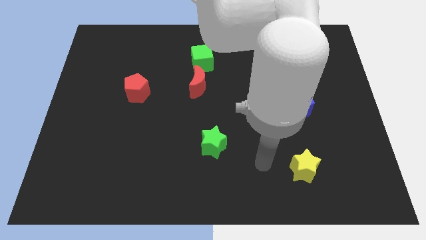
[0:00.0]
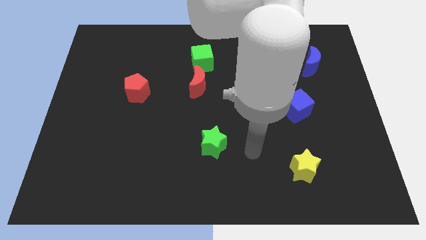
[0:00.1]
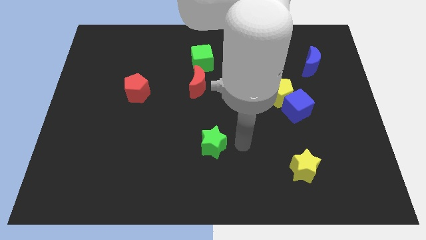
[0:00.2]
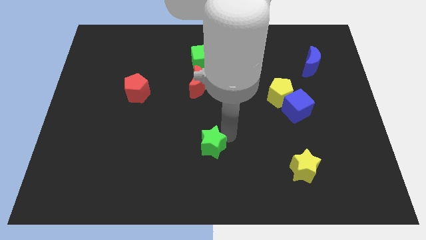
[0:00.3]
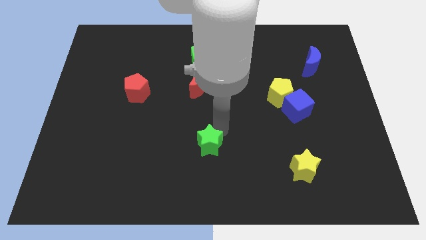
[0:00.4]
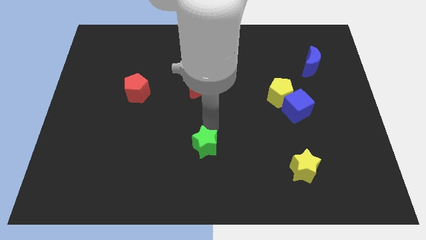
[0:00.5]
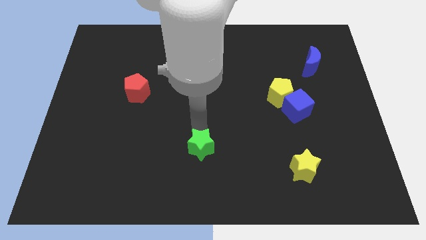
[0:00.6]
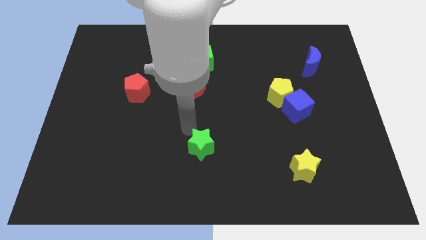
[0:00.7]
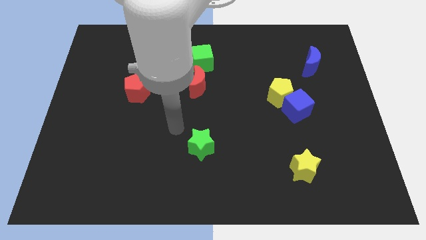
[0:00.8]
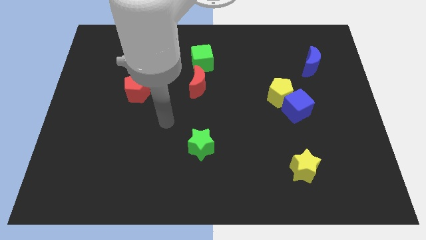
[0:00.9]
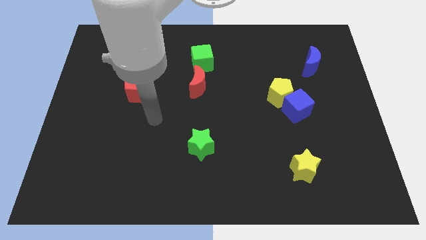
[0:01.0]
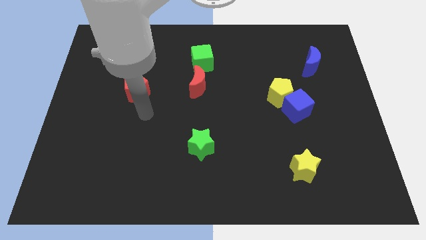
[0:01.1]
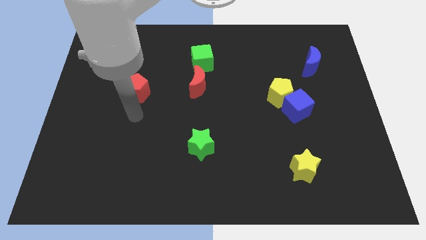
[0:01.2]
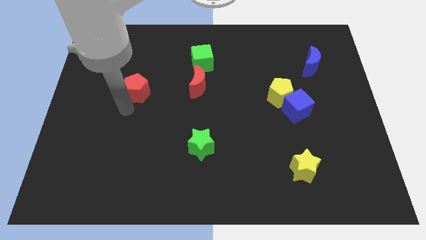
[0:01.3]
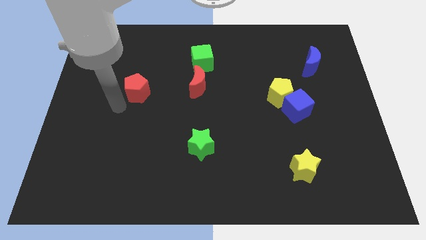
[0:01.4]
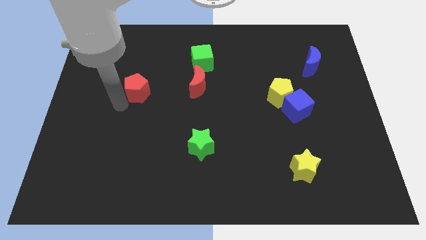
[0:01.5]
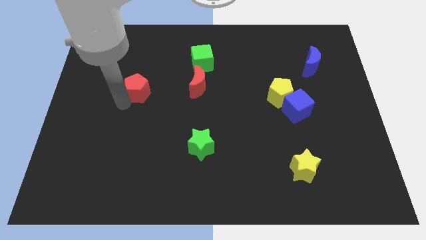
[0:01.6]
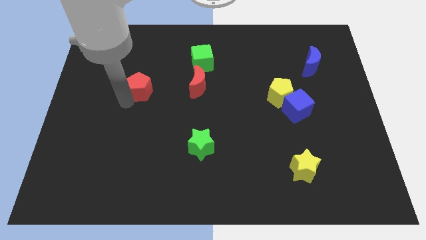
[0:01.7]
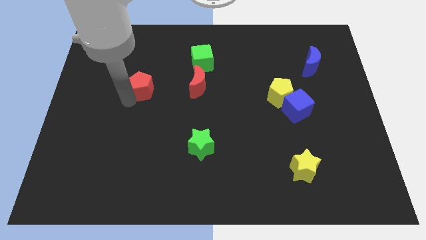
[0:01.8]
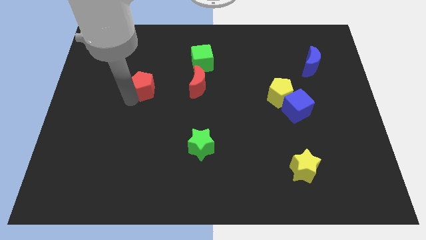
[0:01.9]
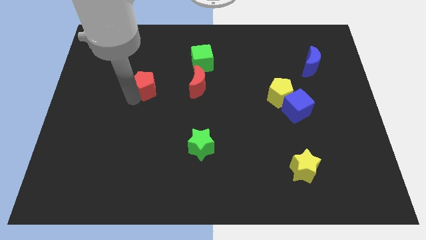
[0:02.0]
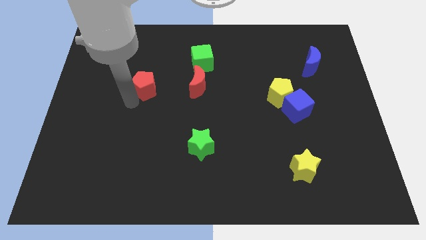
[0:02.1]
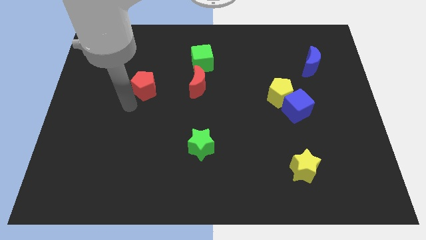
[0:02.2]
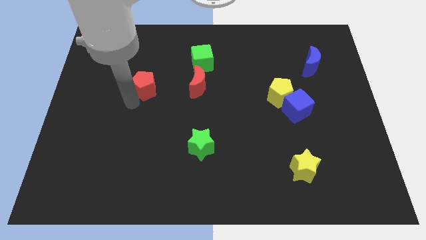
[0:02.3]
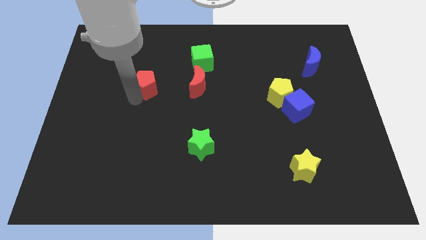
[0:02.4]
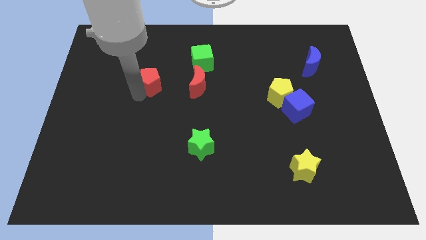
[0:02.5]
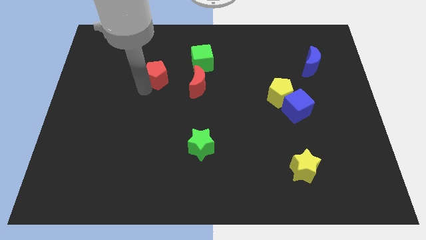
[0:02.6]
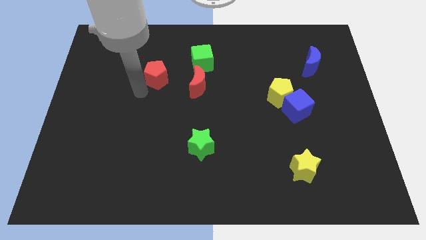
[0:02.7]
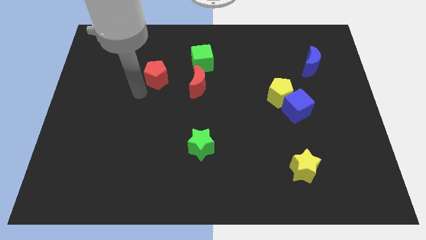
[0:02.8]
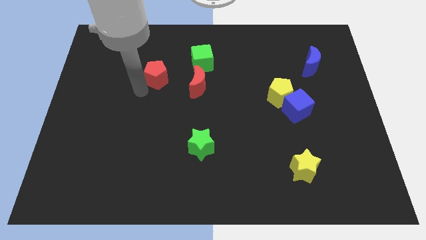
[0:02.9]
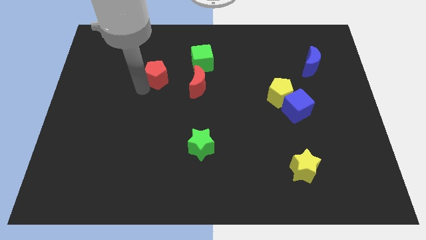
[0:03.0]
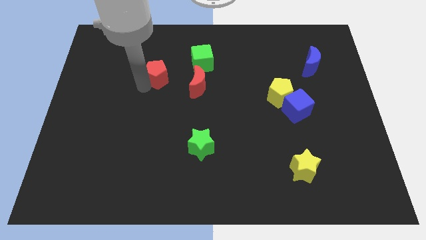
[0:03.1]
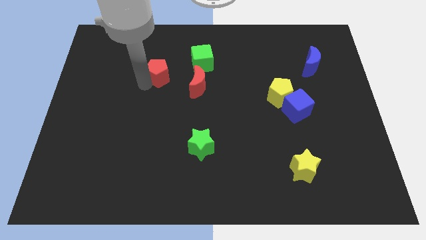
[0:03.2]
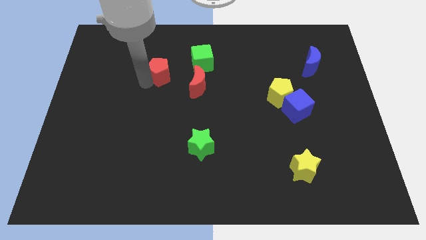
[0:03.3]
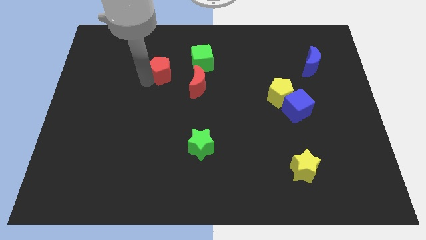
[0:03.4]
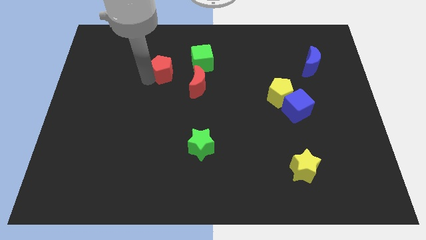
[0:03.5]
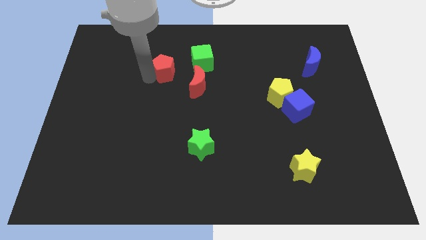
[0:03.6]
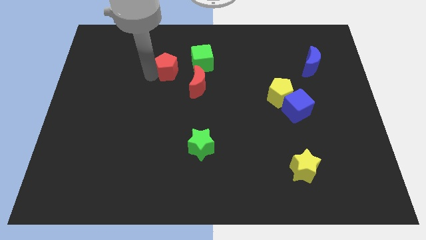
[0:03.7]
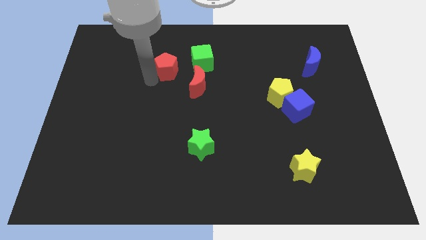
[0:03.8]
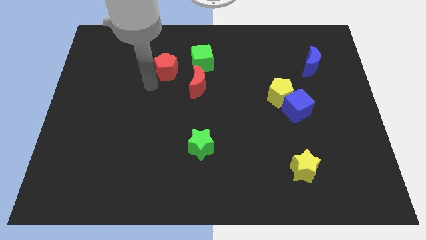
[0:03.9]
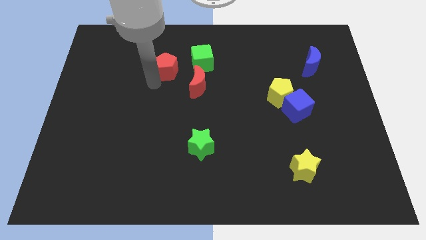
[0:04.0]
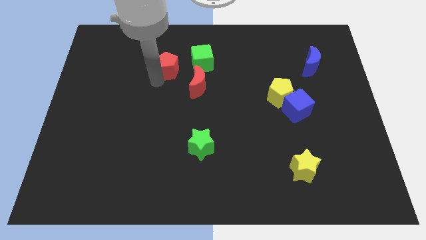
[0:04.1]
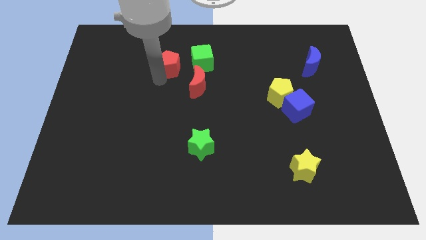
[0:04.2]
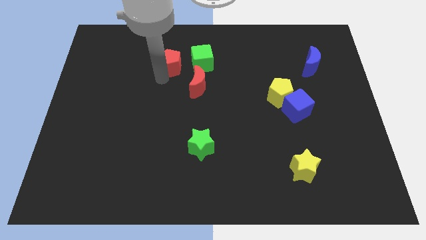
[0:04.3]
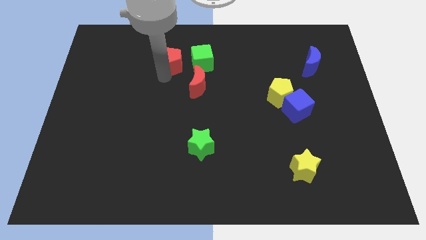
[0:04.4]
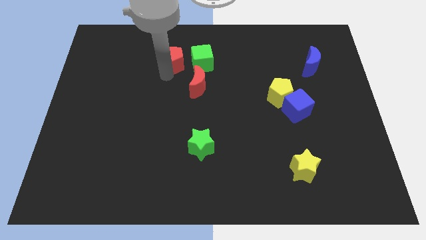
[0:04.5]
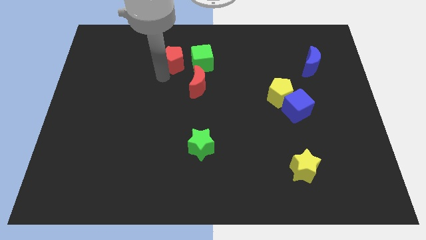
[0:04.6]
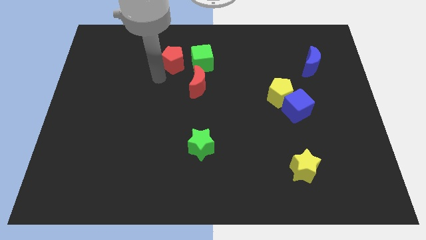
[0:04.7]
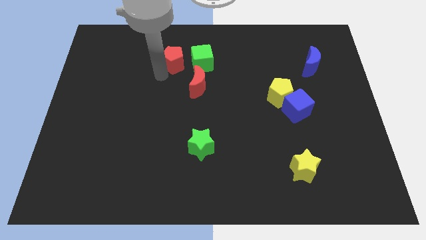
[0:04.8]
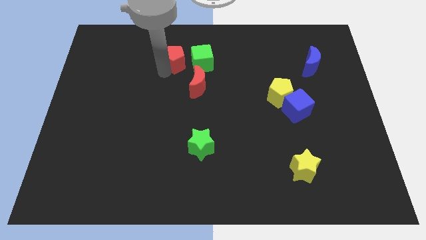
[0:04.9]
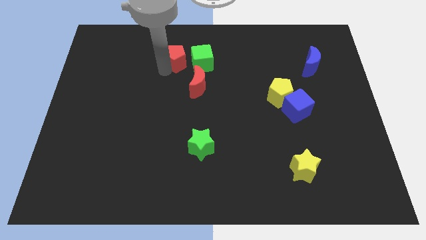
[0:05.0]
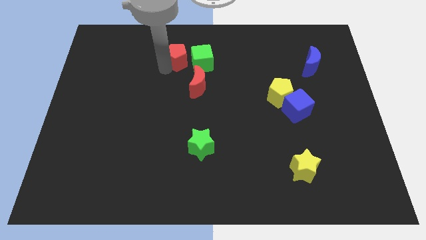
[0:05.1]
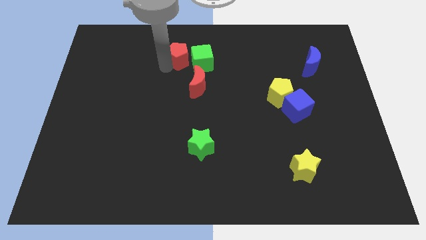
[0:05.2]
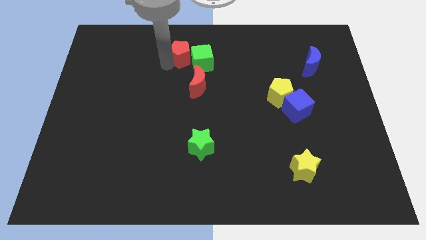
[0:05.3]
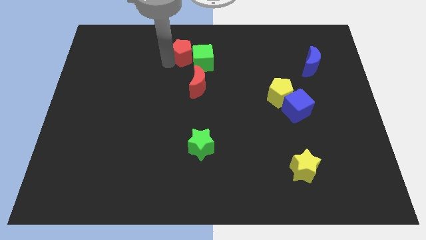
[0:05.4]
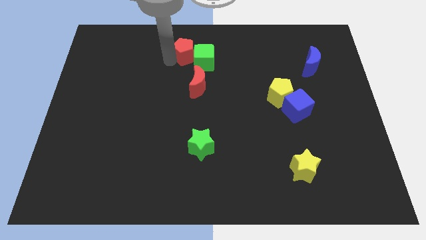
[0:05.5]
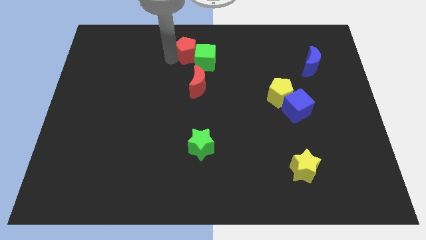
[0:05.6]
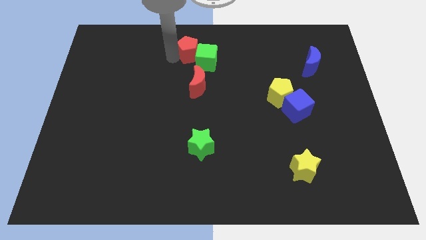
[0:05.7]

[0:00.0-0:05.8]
put the red pentagon to the towards your base
